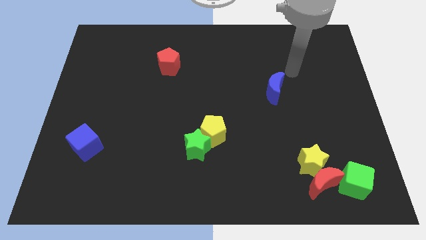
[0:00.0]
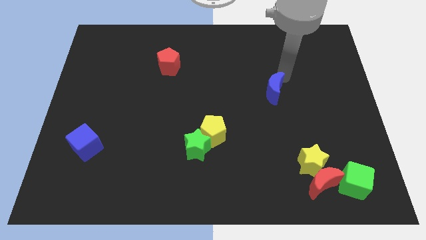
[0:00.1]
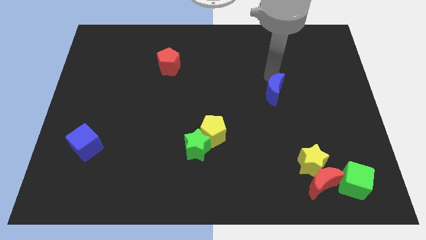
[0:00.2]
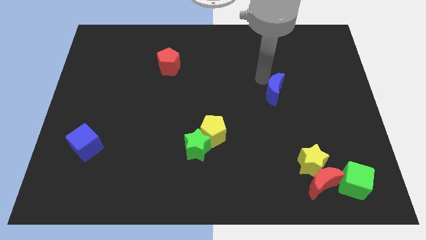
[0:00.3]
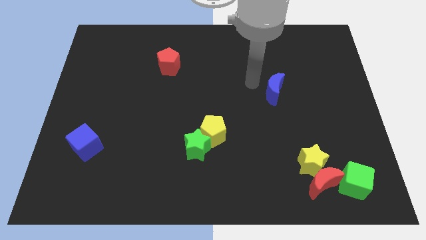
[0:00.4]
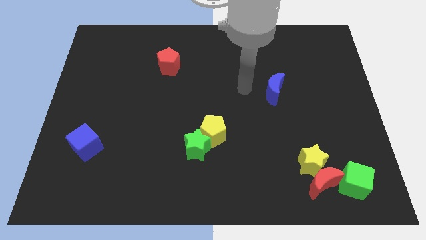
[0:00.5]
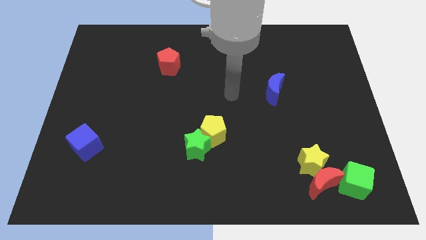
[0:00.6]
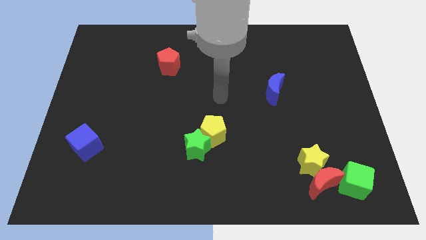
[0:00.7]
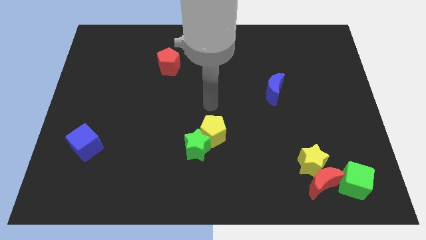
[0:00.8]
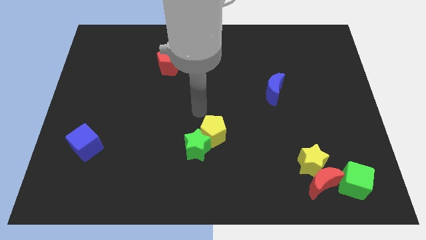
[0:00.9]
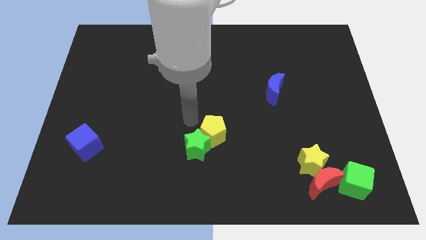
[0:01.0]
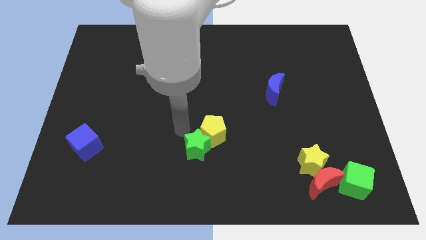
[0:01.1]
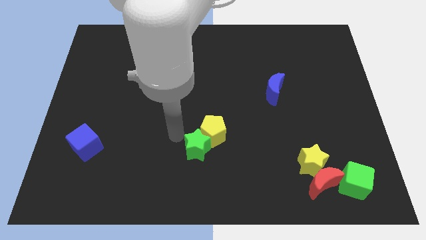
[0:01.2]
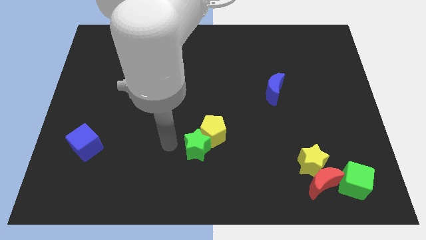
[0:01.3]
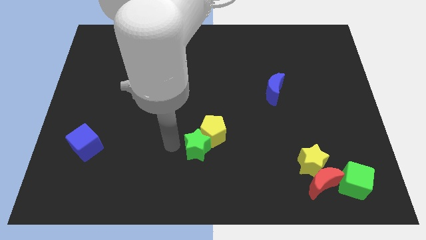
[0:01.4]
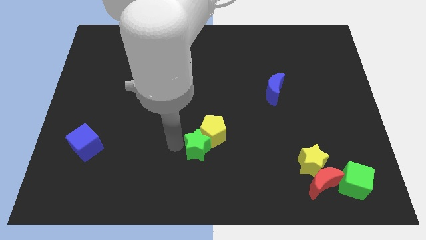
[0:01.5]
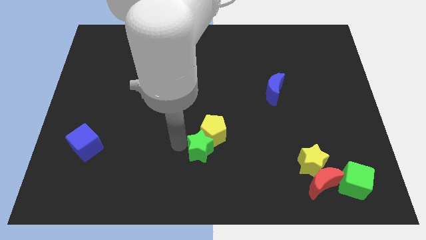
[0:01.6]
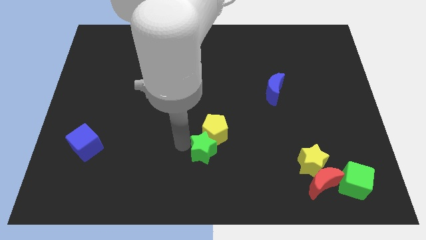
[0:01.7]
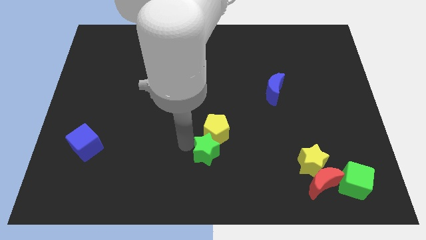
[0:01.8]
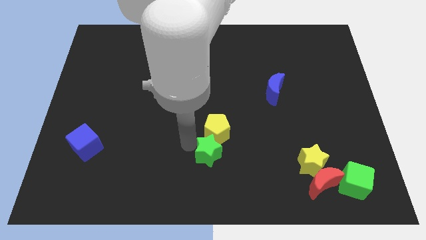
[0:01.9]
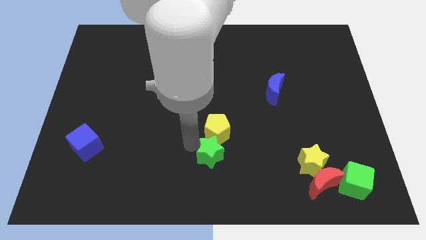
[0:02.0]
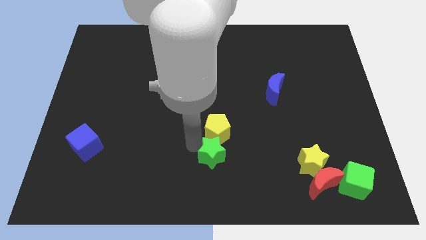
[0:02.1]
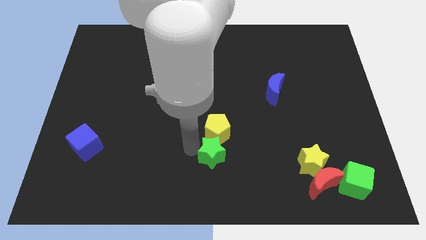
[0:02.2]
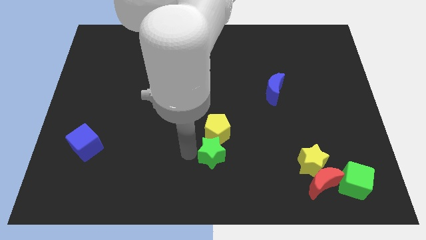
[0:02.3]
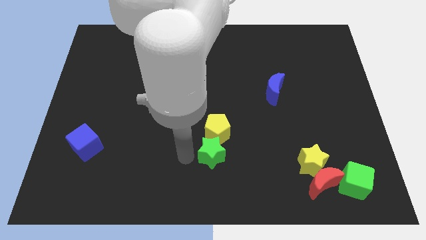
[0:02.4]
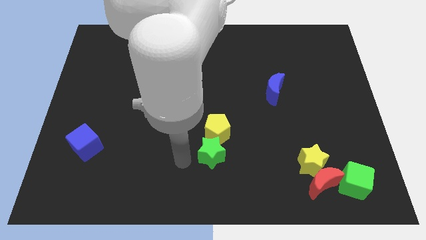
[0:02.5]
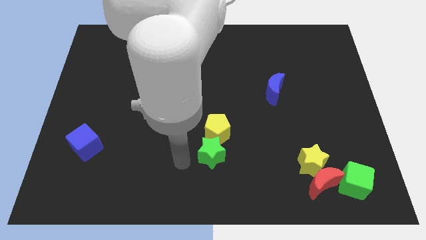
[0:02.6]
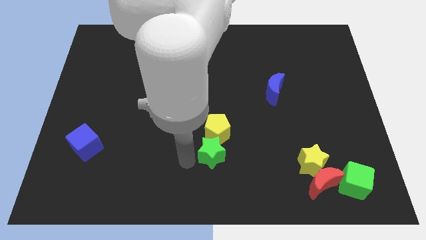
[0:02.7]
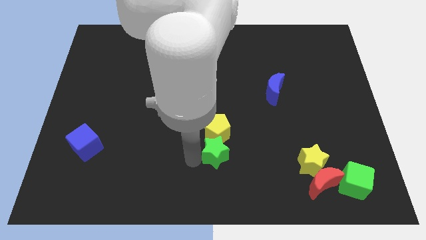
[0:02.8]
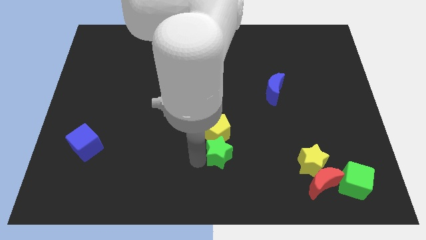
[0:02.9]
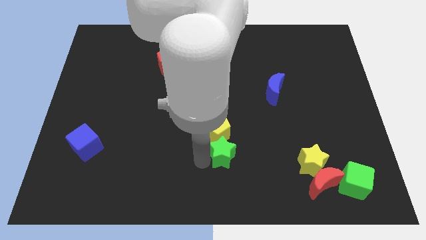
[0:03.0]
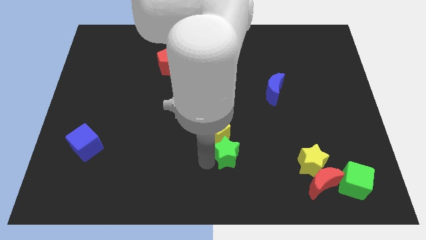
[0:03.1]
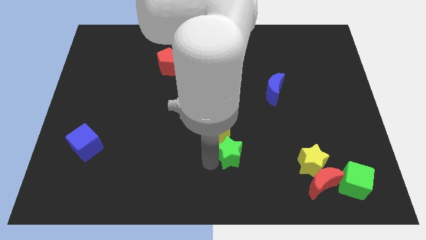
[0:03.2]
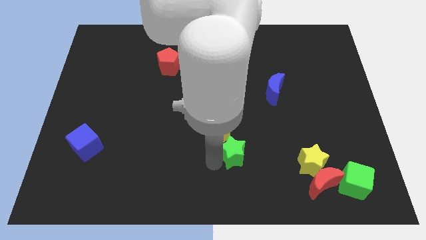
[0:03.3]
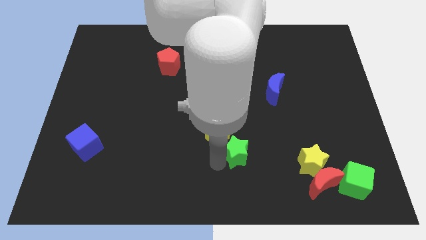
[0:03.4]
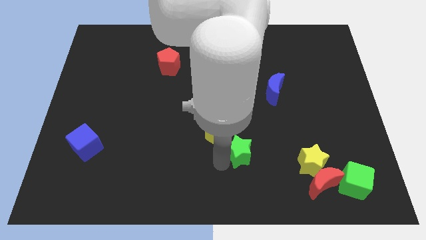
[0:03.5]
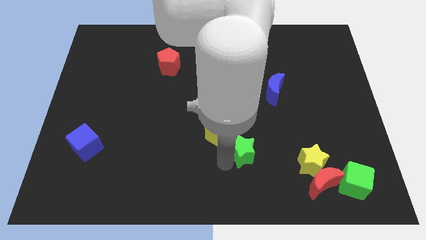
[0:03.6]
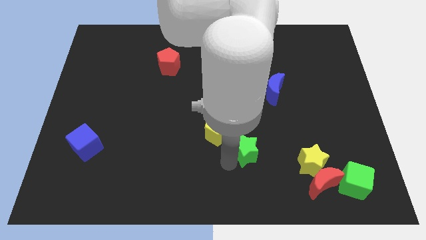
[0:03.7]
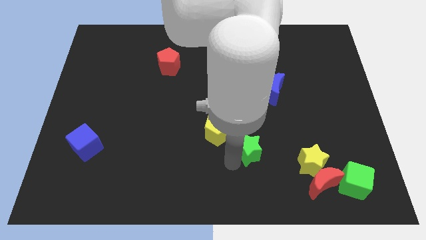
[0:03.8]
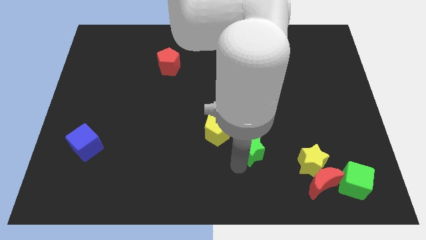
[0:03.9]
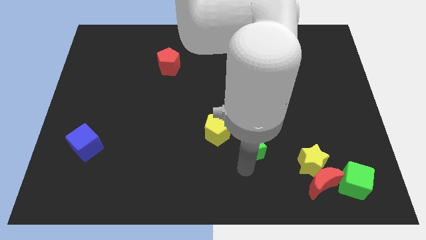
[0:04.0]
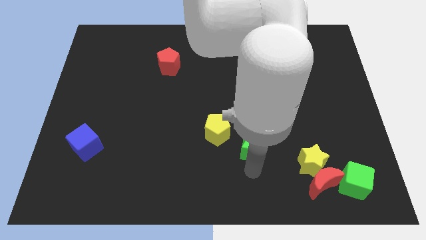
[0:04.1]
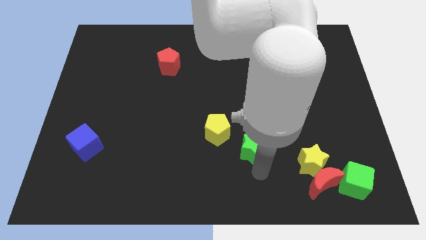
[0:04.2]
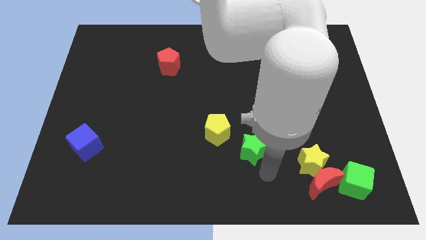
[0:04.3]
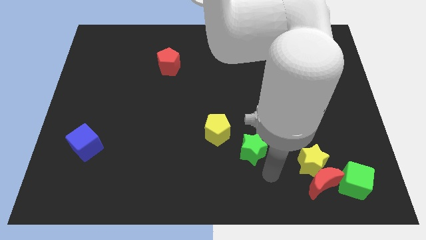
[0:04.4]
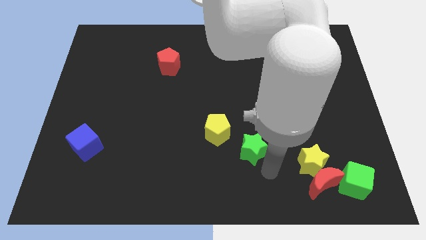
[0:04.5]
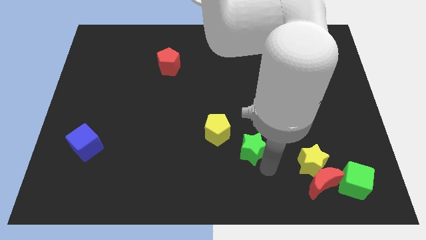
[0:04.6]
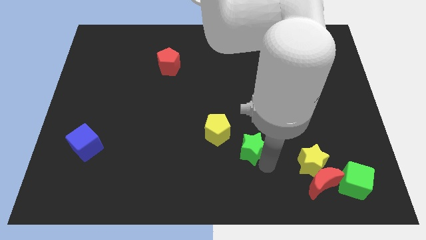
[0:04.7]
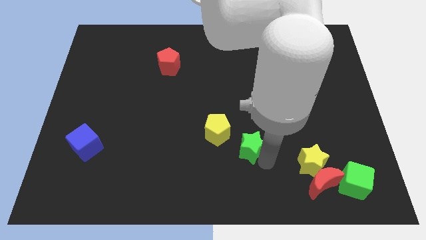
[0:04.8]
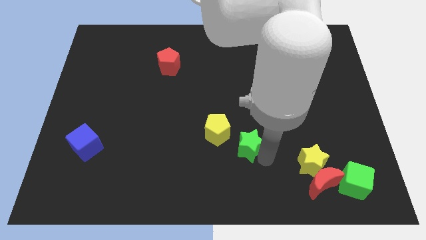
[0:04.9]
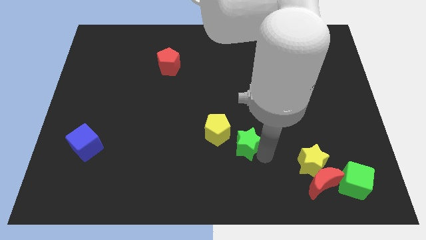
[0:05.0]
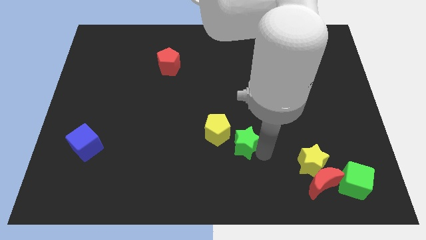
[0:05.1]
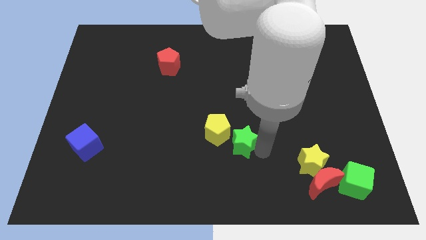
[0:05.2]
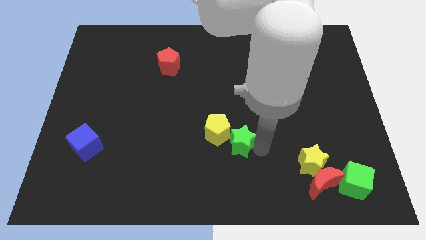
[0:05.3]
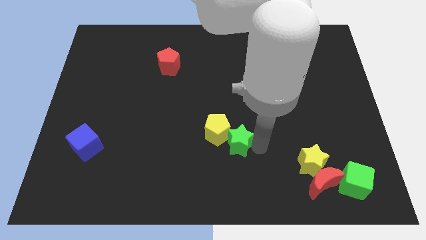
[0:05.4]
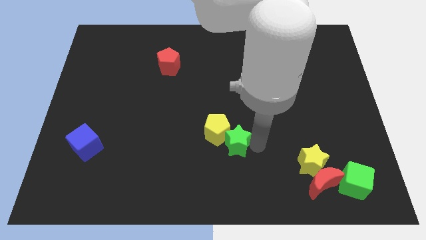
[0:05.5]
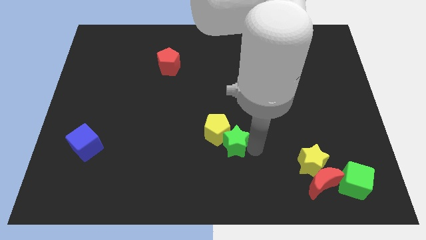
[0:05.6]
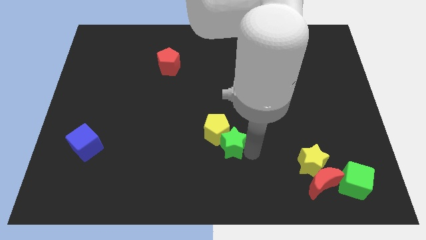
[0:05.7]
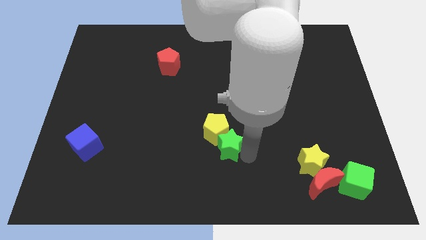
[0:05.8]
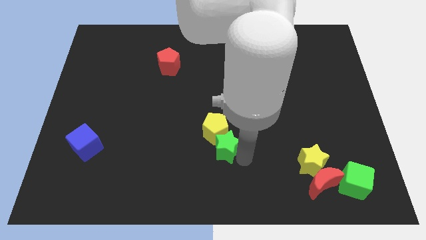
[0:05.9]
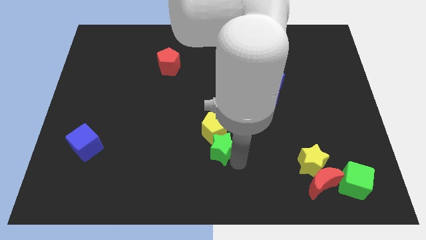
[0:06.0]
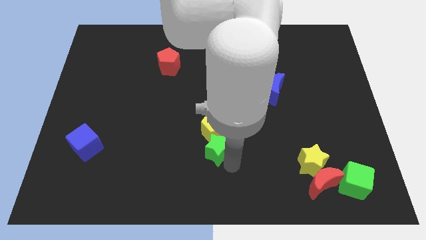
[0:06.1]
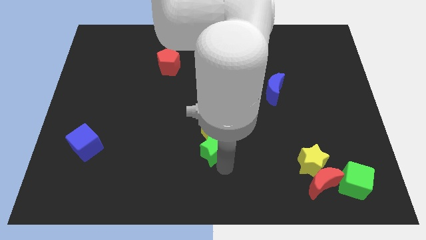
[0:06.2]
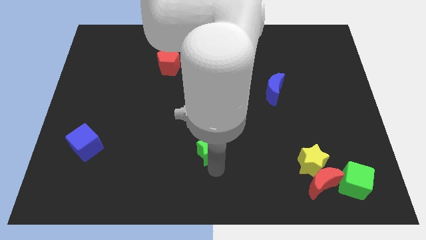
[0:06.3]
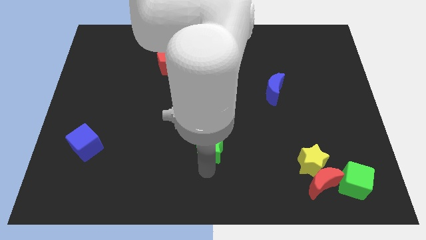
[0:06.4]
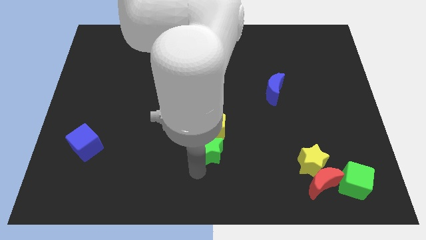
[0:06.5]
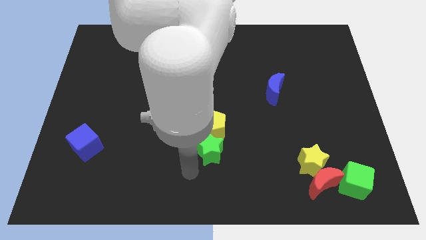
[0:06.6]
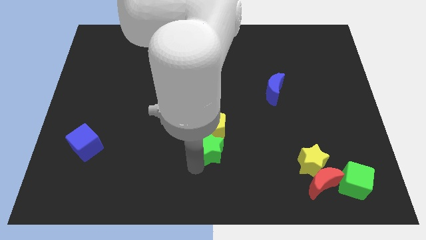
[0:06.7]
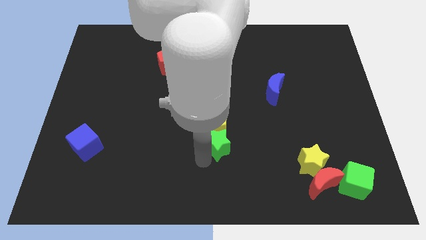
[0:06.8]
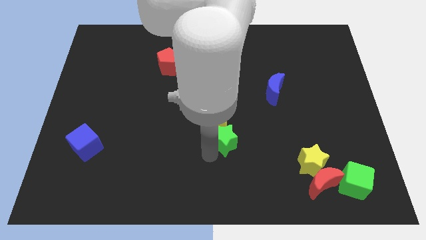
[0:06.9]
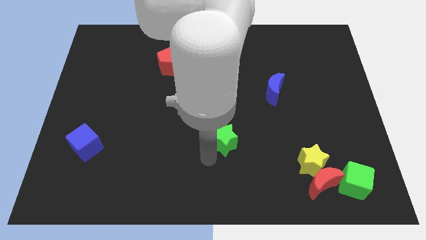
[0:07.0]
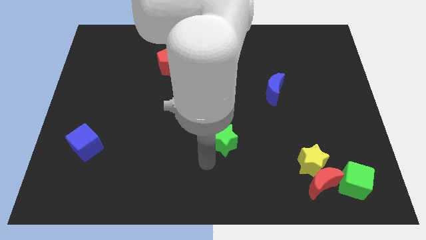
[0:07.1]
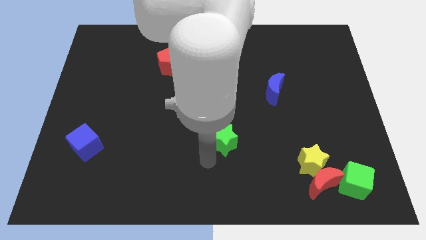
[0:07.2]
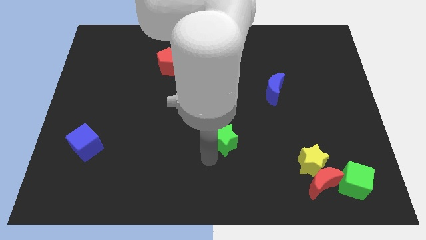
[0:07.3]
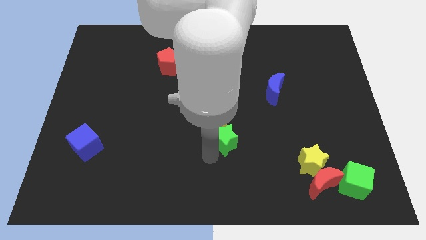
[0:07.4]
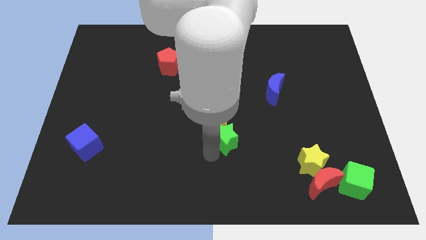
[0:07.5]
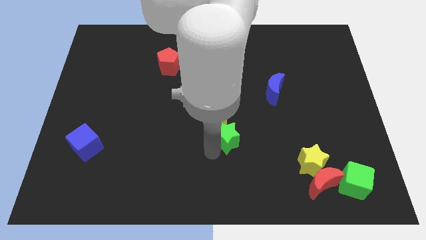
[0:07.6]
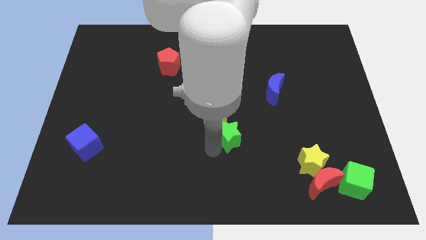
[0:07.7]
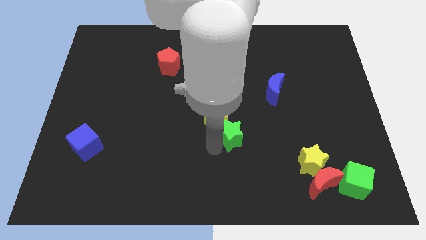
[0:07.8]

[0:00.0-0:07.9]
slightly move the green star up and then to the right

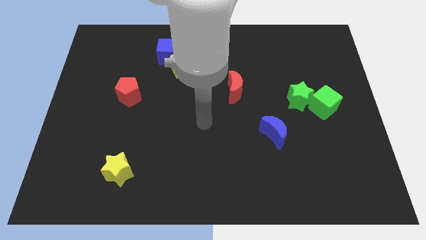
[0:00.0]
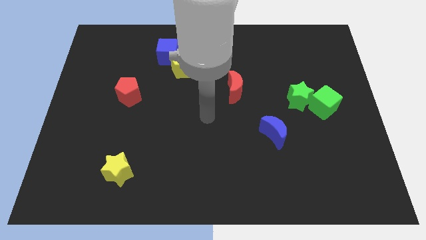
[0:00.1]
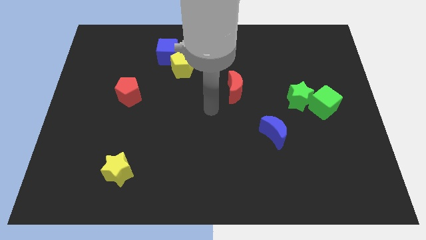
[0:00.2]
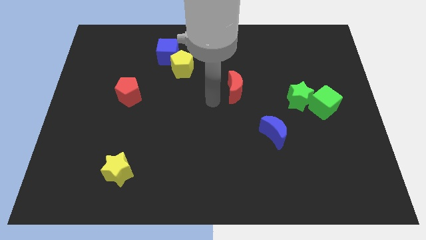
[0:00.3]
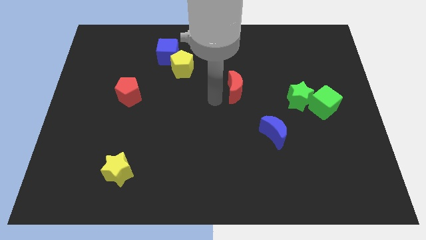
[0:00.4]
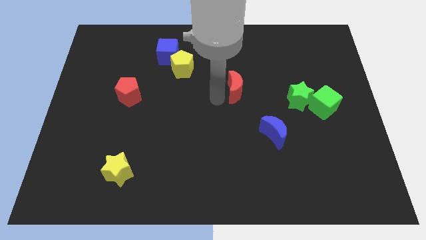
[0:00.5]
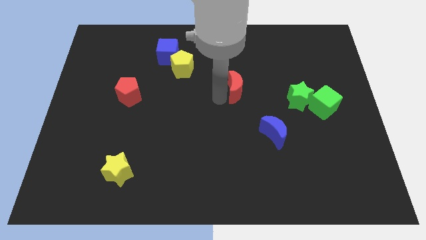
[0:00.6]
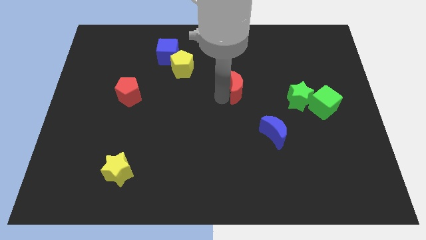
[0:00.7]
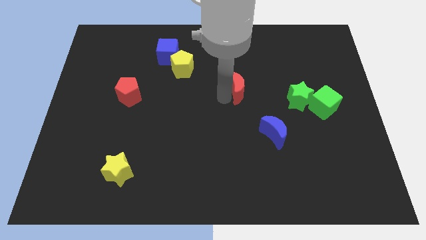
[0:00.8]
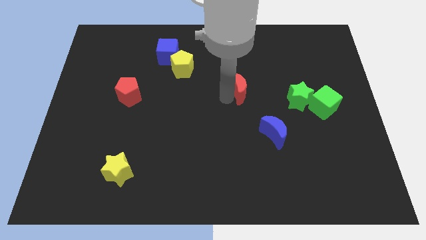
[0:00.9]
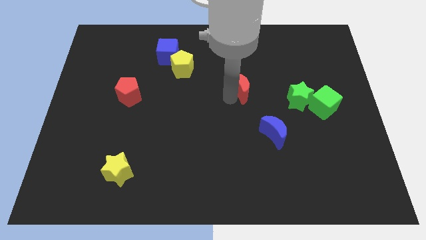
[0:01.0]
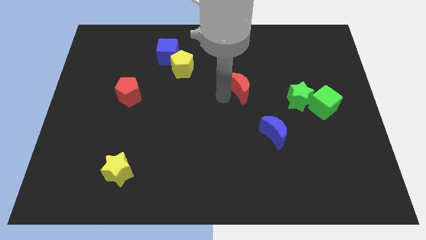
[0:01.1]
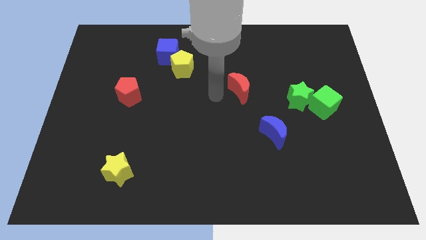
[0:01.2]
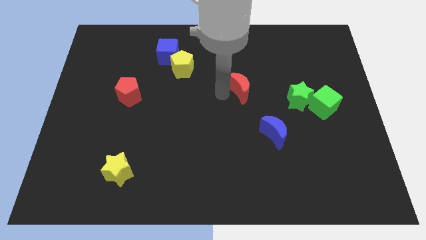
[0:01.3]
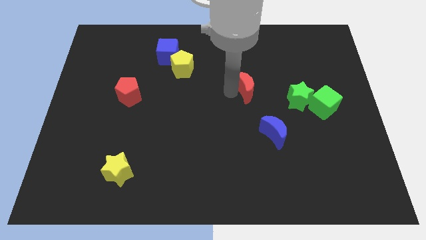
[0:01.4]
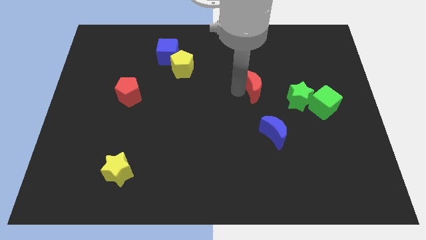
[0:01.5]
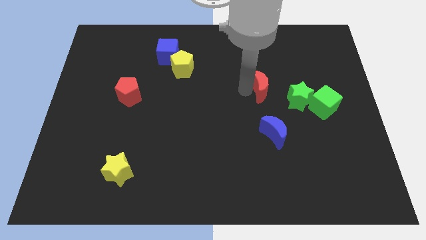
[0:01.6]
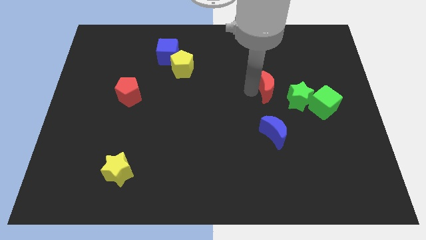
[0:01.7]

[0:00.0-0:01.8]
push the red moon a bit to the right
